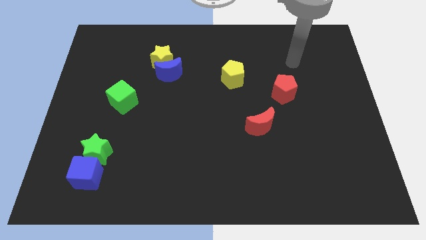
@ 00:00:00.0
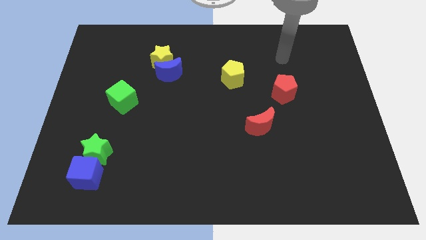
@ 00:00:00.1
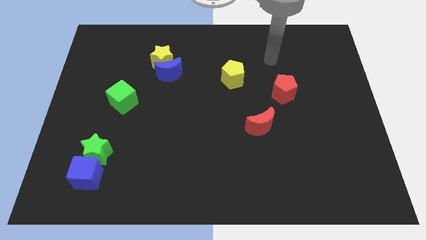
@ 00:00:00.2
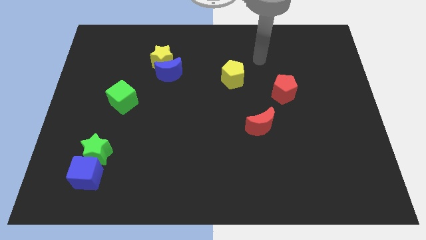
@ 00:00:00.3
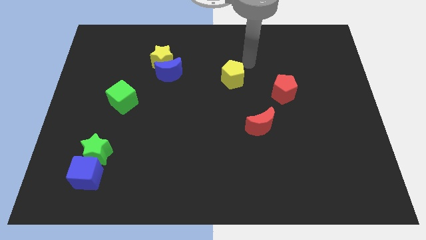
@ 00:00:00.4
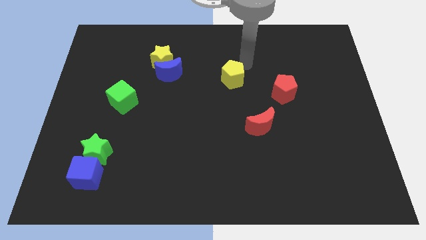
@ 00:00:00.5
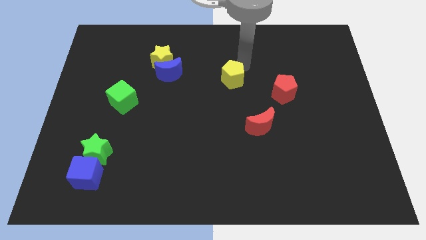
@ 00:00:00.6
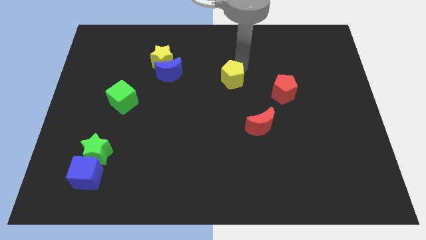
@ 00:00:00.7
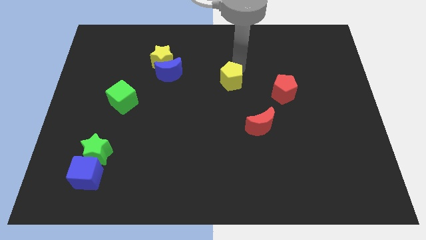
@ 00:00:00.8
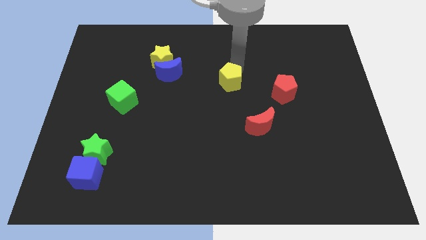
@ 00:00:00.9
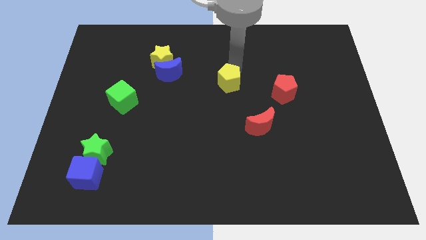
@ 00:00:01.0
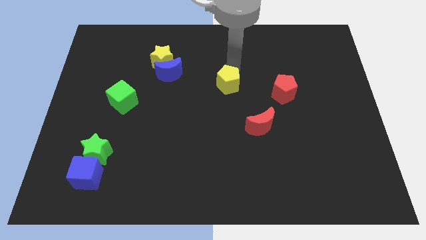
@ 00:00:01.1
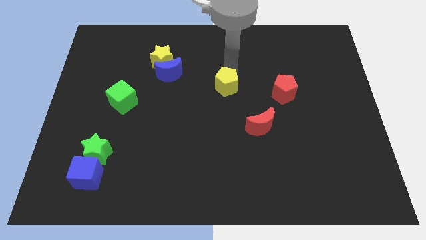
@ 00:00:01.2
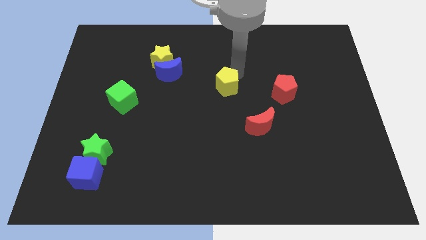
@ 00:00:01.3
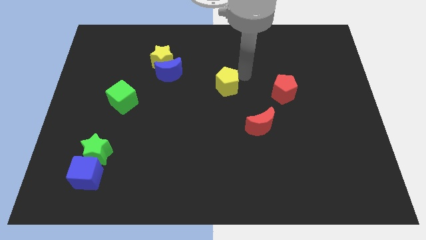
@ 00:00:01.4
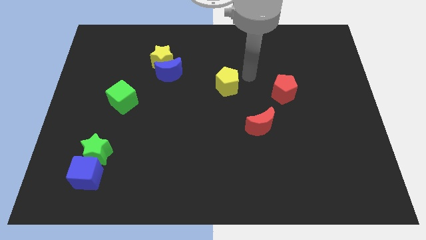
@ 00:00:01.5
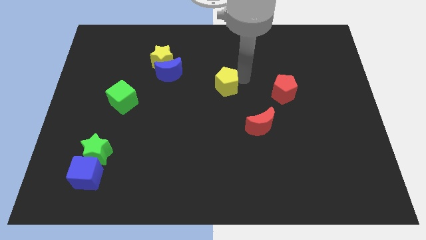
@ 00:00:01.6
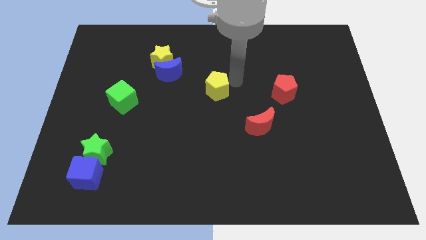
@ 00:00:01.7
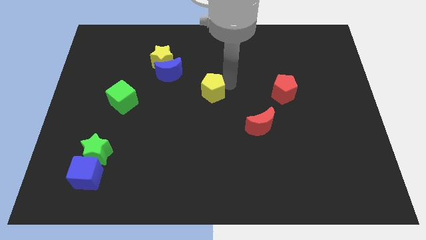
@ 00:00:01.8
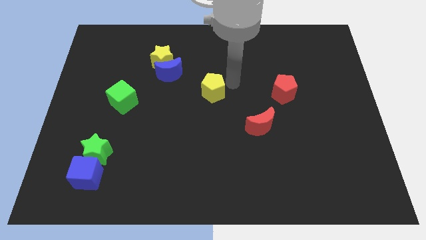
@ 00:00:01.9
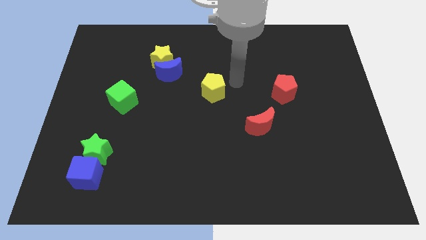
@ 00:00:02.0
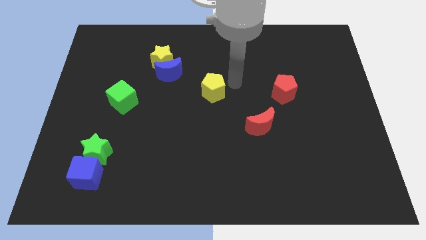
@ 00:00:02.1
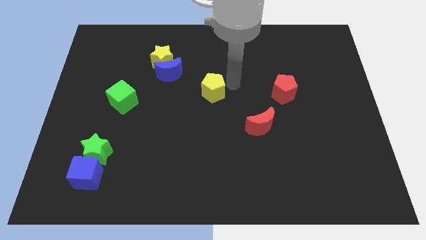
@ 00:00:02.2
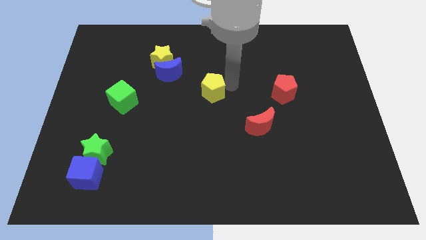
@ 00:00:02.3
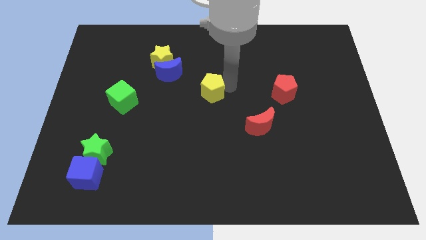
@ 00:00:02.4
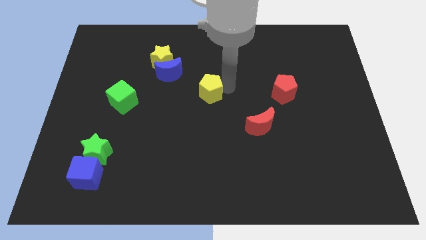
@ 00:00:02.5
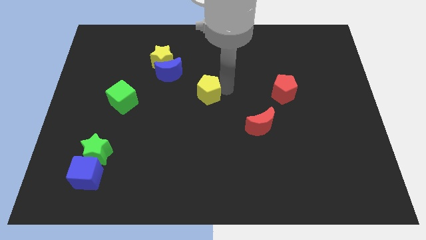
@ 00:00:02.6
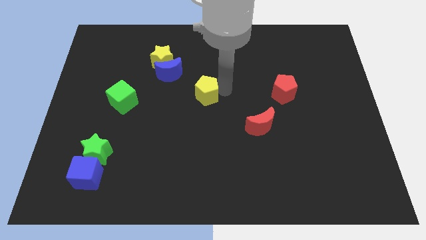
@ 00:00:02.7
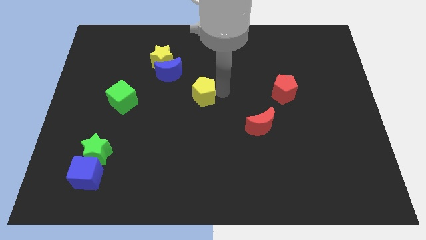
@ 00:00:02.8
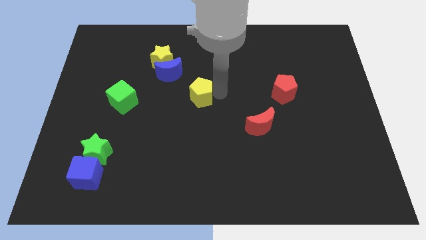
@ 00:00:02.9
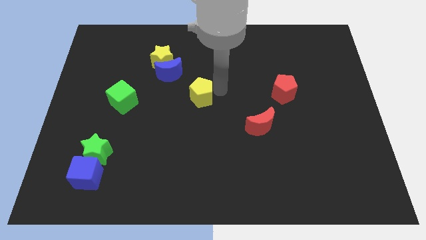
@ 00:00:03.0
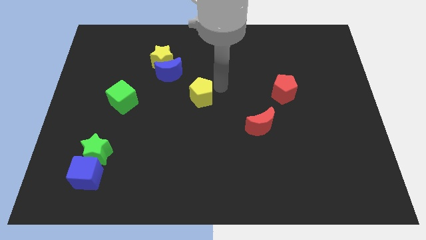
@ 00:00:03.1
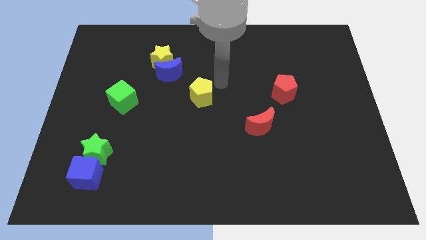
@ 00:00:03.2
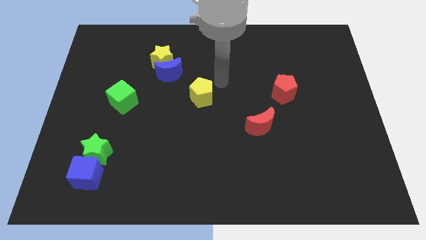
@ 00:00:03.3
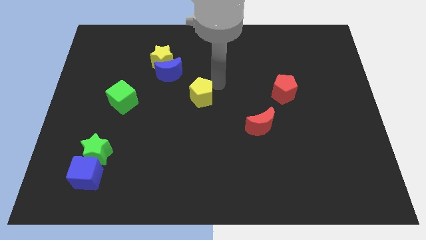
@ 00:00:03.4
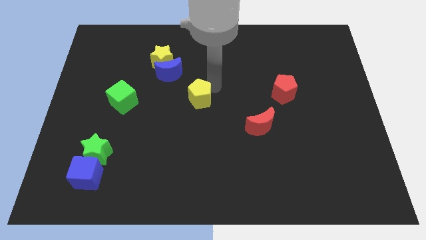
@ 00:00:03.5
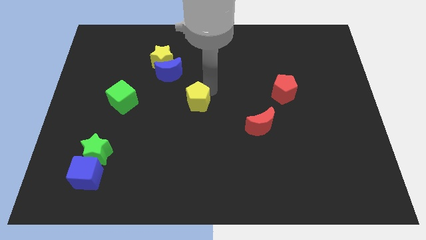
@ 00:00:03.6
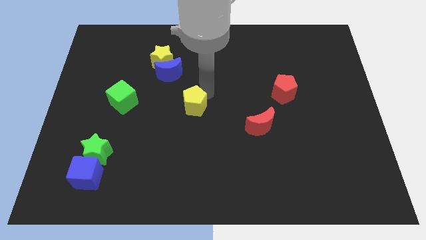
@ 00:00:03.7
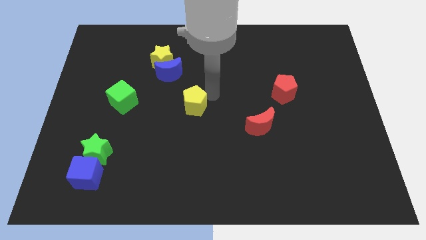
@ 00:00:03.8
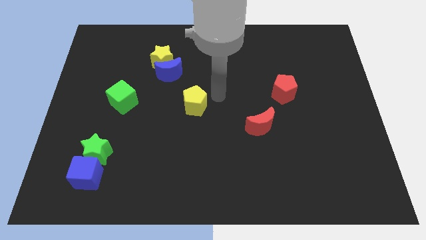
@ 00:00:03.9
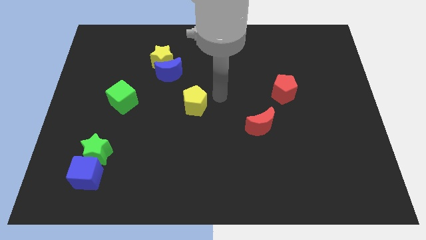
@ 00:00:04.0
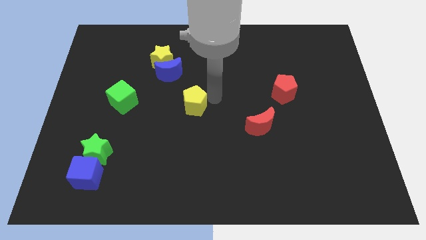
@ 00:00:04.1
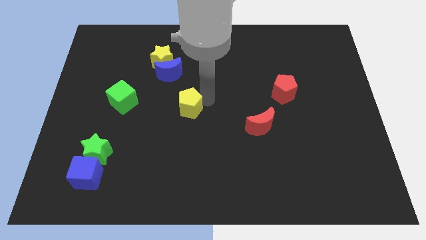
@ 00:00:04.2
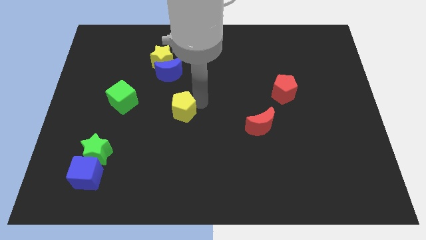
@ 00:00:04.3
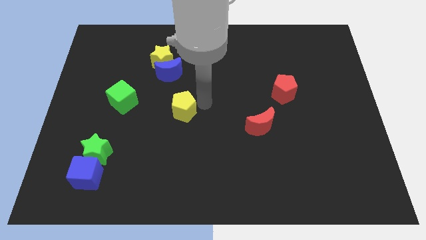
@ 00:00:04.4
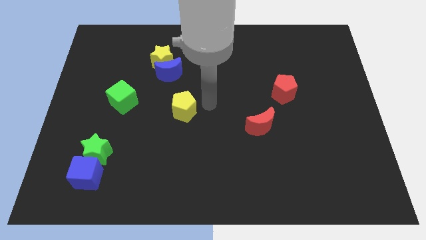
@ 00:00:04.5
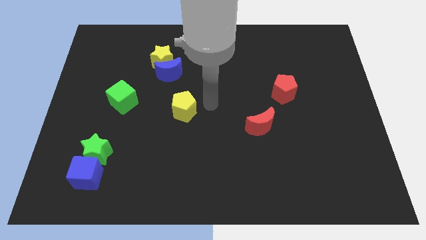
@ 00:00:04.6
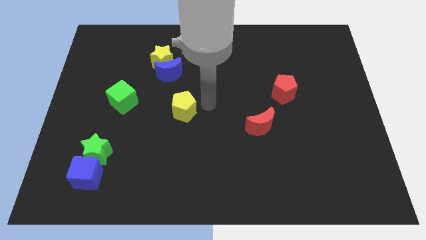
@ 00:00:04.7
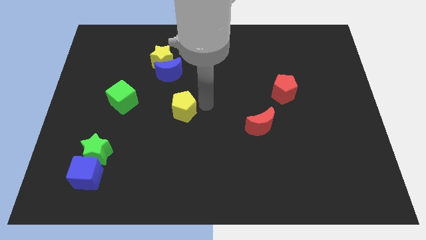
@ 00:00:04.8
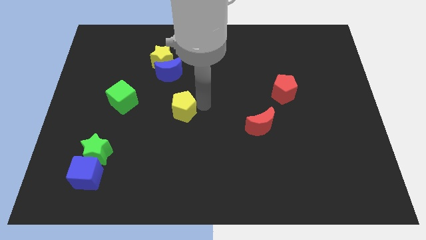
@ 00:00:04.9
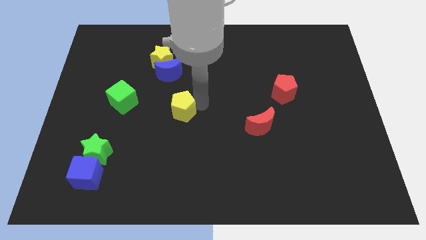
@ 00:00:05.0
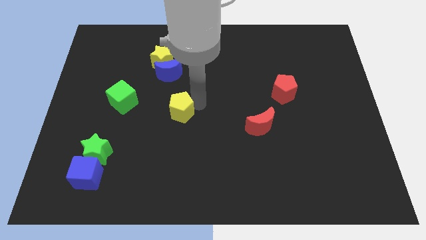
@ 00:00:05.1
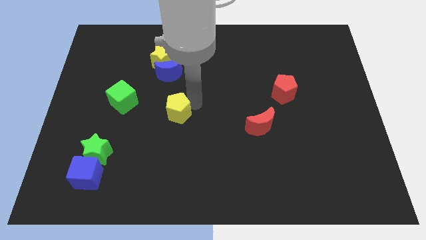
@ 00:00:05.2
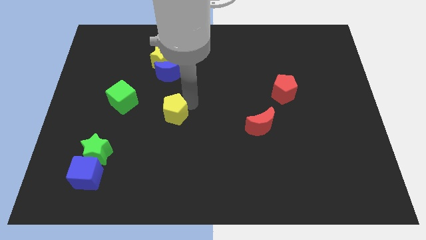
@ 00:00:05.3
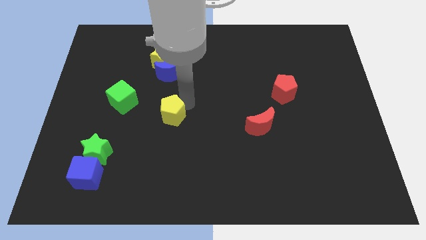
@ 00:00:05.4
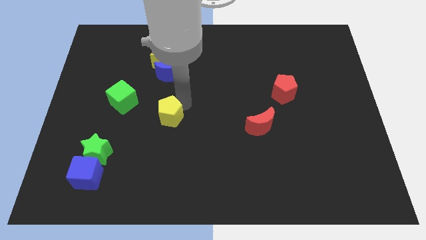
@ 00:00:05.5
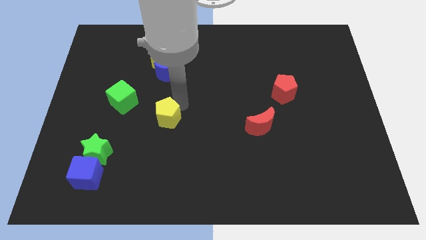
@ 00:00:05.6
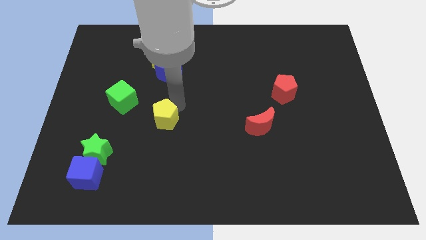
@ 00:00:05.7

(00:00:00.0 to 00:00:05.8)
move the yellow pentagon down and to the left diagonally

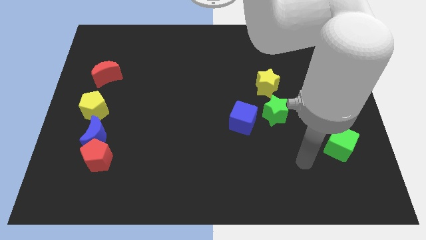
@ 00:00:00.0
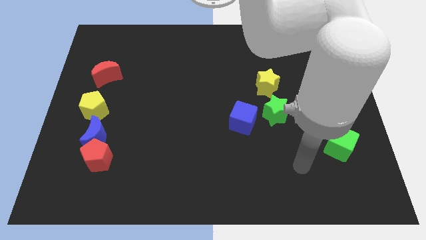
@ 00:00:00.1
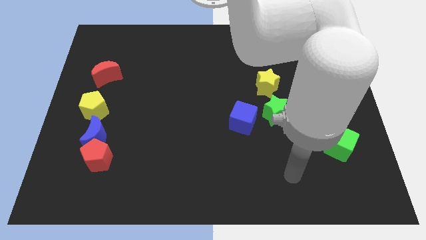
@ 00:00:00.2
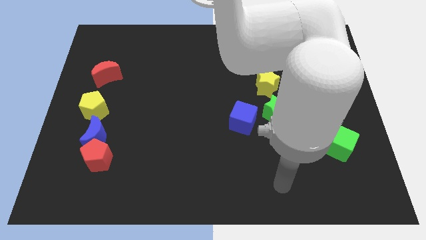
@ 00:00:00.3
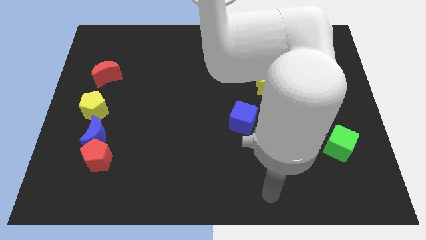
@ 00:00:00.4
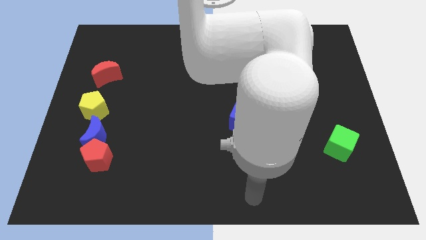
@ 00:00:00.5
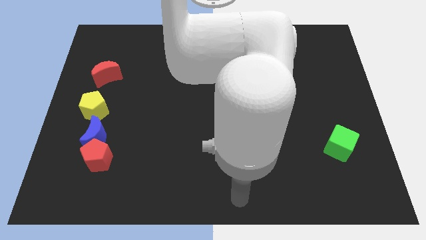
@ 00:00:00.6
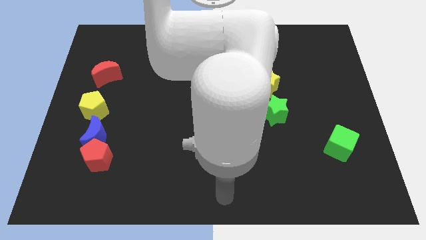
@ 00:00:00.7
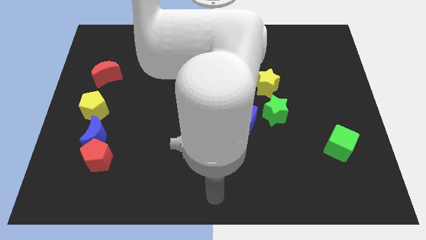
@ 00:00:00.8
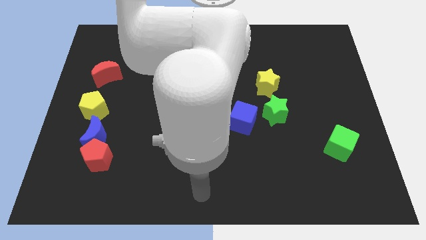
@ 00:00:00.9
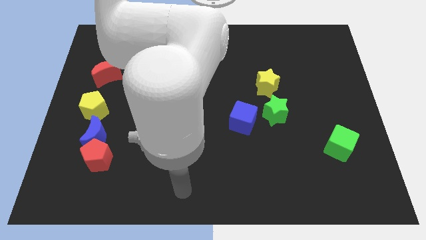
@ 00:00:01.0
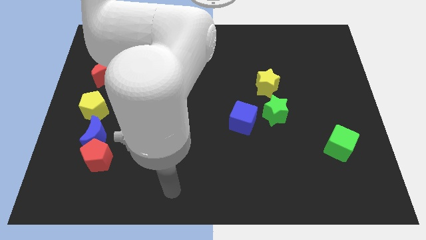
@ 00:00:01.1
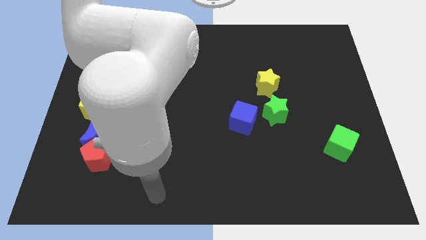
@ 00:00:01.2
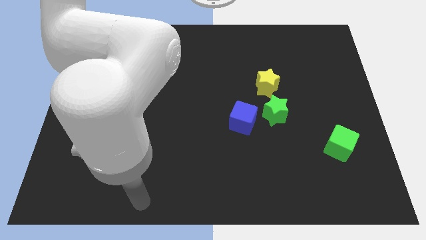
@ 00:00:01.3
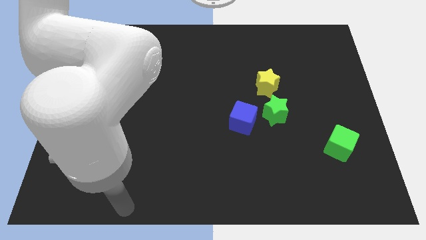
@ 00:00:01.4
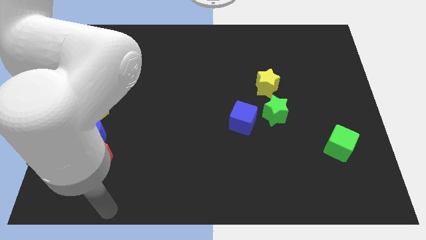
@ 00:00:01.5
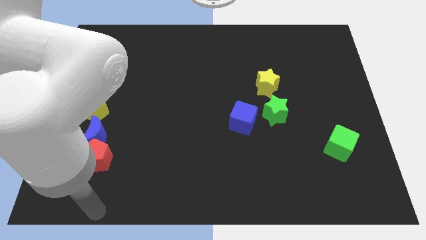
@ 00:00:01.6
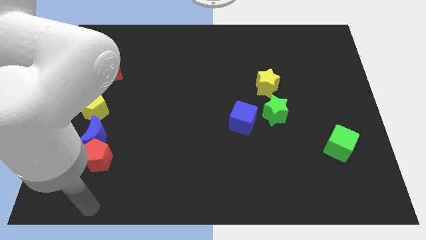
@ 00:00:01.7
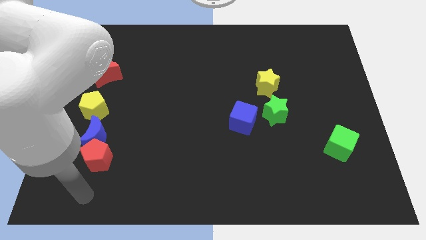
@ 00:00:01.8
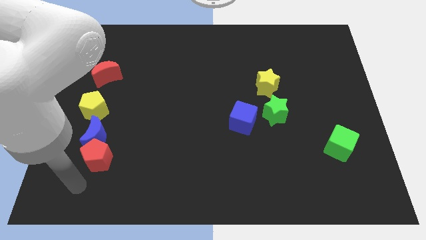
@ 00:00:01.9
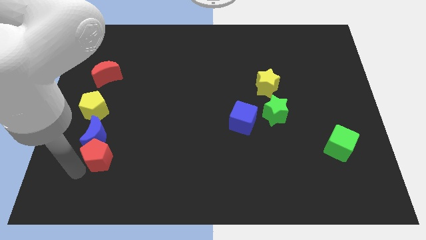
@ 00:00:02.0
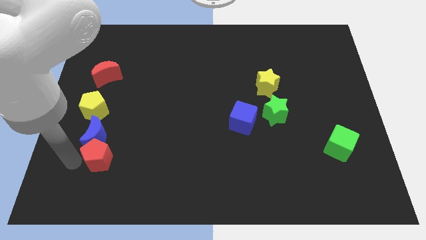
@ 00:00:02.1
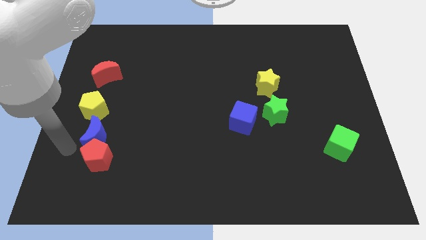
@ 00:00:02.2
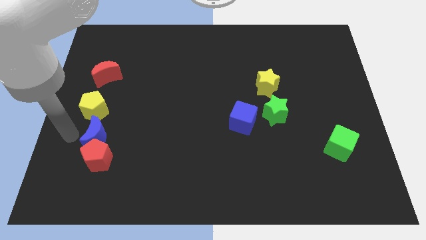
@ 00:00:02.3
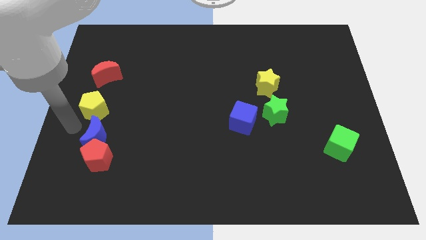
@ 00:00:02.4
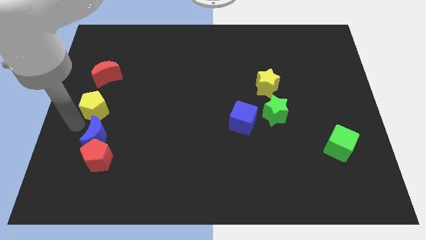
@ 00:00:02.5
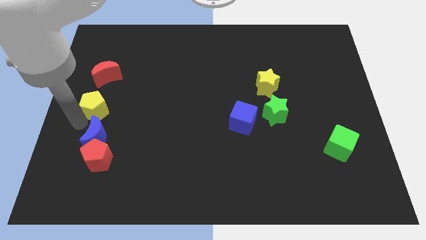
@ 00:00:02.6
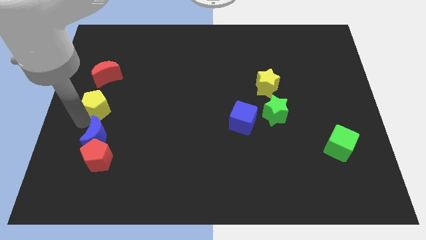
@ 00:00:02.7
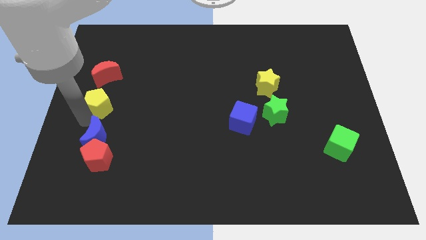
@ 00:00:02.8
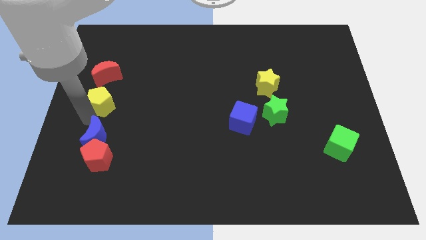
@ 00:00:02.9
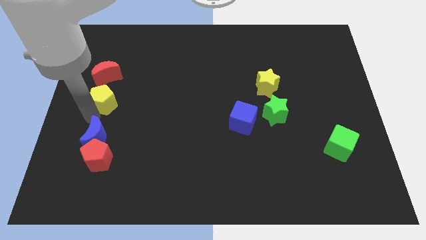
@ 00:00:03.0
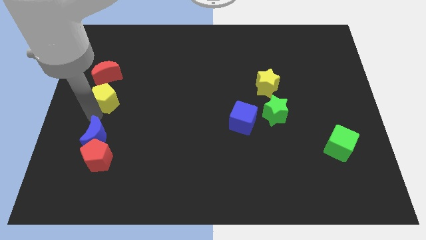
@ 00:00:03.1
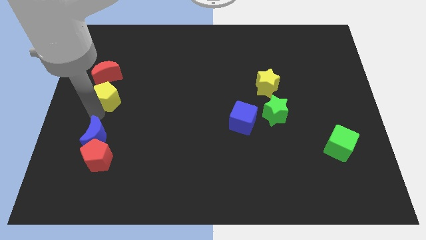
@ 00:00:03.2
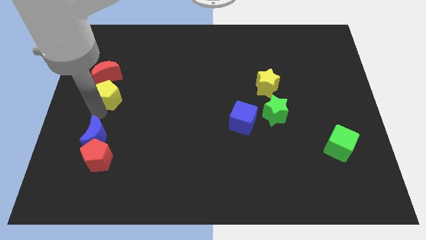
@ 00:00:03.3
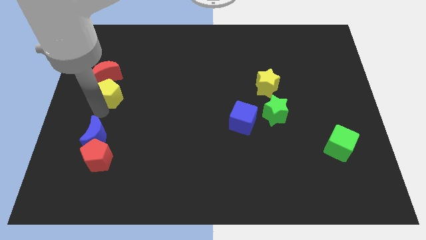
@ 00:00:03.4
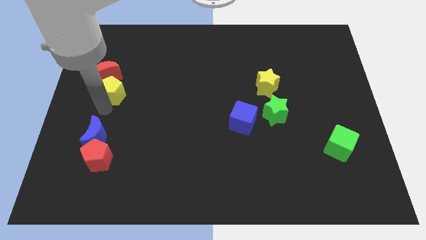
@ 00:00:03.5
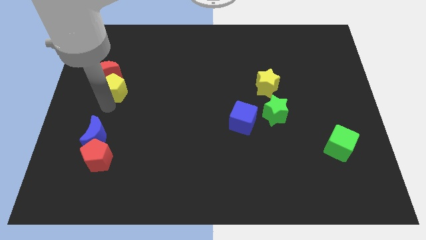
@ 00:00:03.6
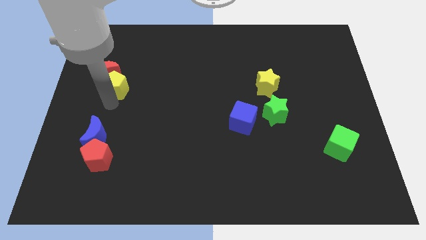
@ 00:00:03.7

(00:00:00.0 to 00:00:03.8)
slightly push the yellow pentagon upwards and then to the right
